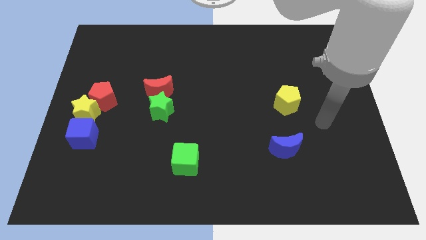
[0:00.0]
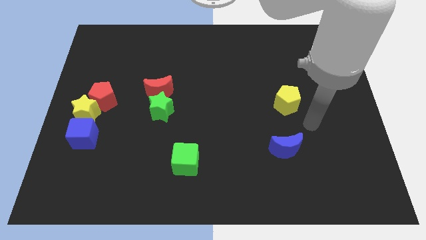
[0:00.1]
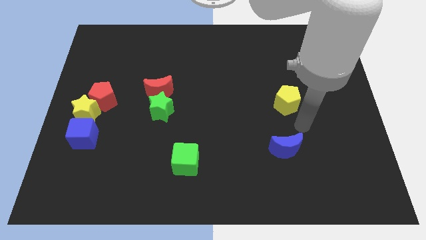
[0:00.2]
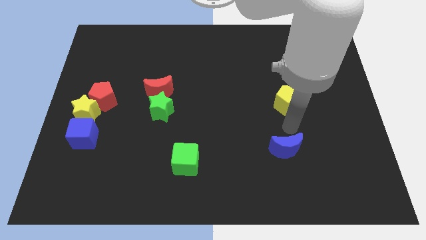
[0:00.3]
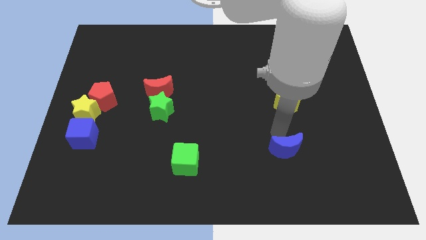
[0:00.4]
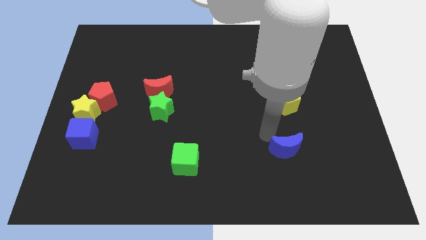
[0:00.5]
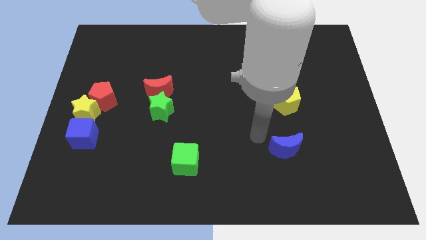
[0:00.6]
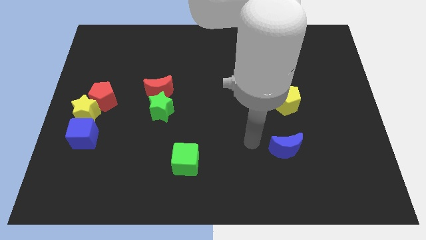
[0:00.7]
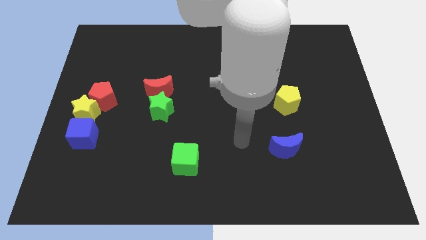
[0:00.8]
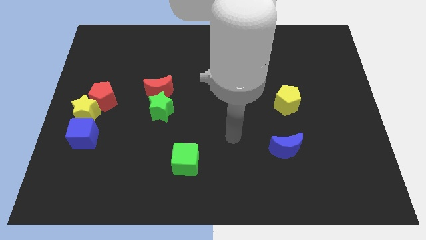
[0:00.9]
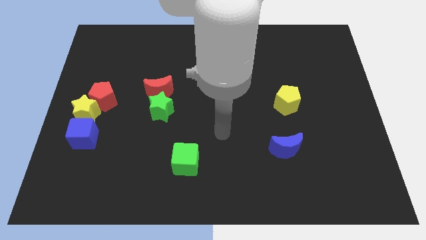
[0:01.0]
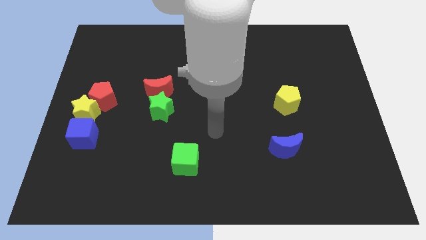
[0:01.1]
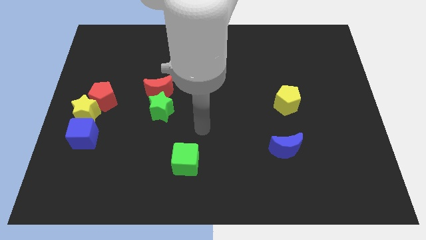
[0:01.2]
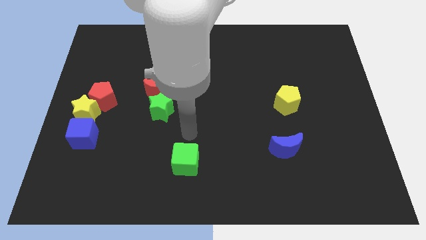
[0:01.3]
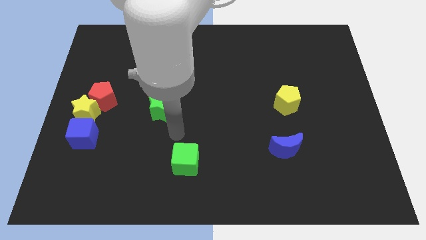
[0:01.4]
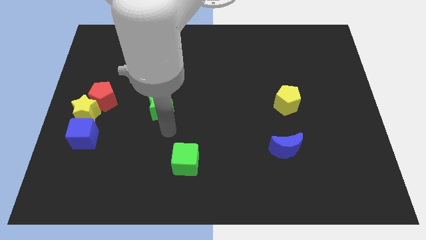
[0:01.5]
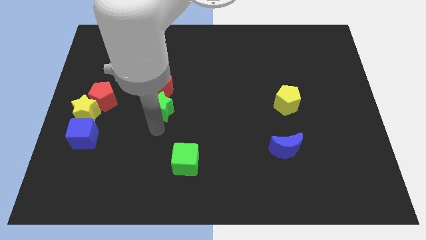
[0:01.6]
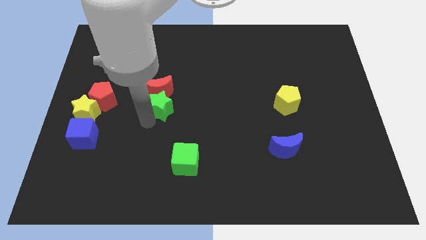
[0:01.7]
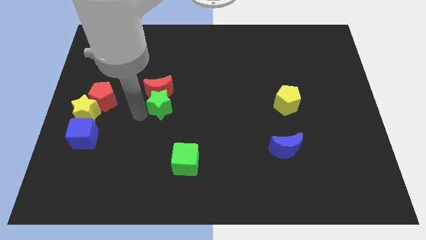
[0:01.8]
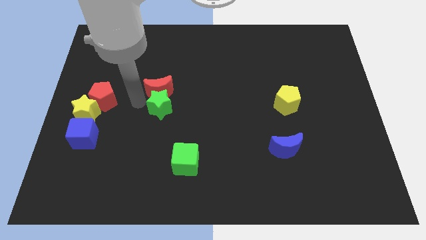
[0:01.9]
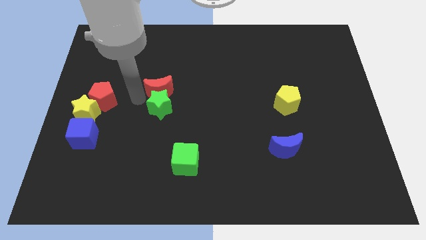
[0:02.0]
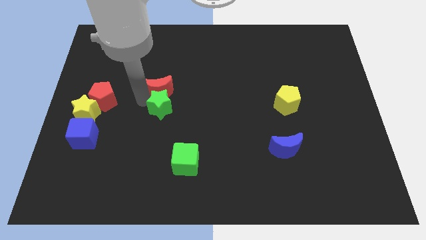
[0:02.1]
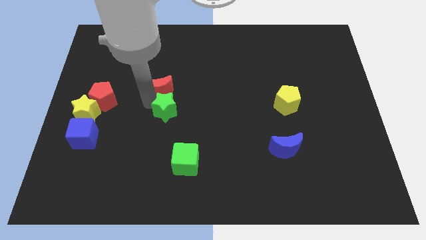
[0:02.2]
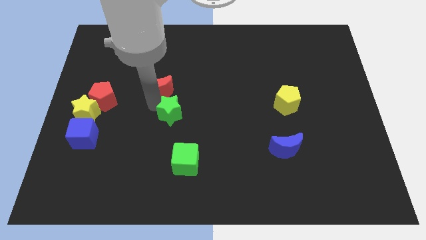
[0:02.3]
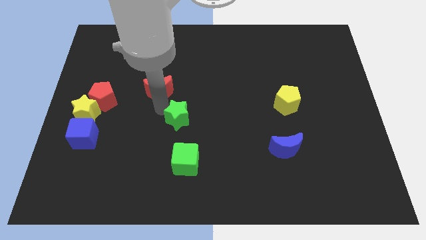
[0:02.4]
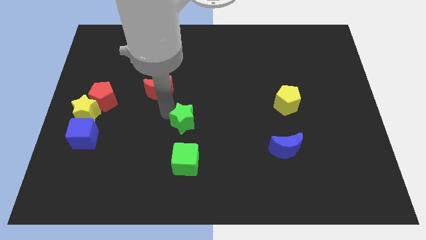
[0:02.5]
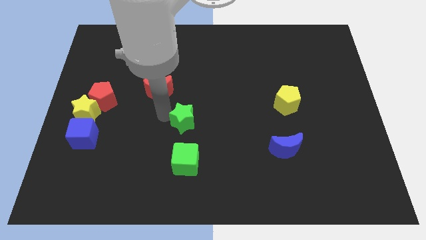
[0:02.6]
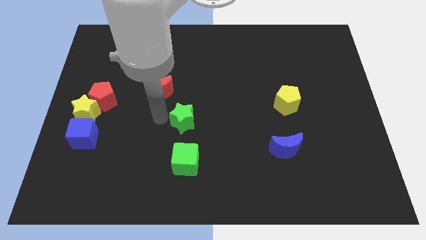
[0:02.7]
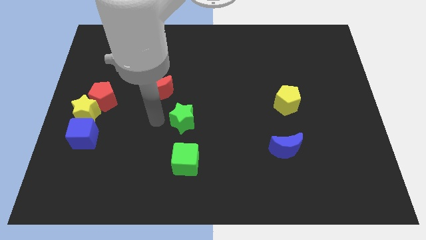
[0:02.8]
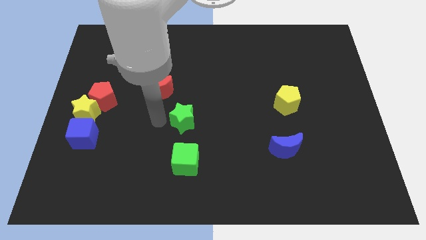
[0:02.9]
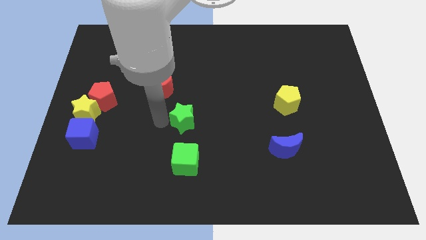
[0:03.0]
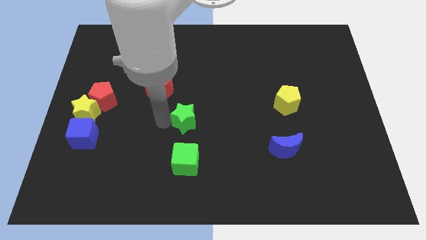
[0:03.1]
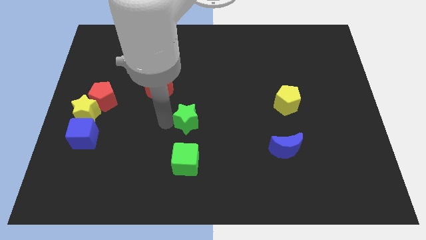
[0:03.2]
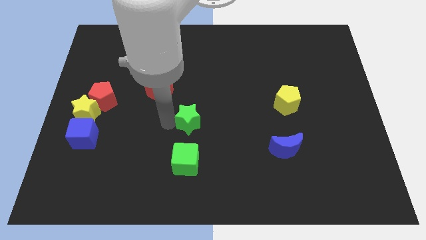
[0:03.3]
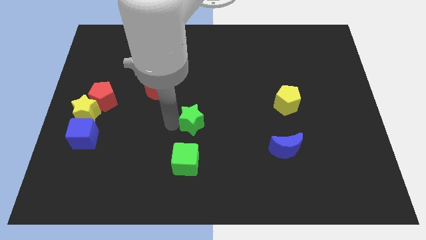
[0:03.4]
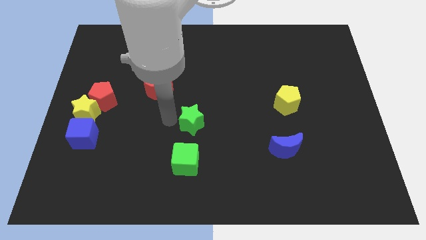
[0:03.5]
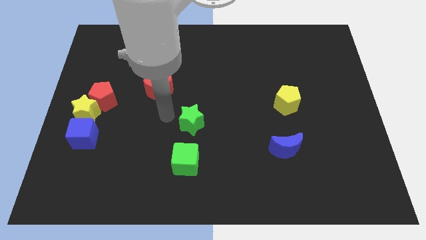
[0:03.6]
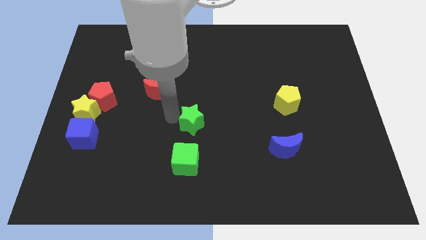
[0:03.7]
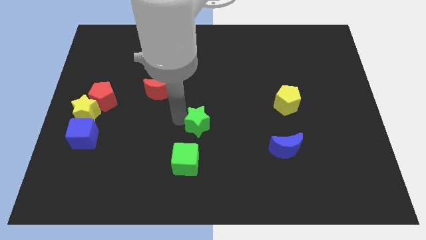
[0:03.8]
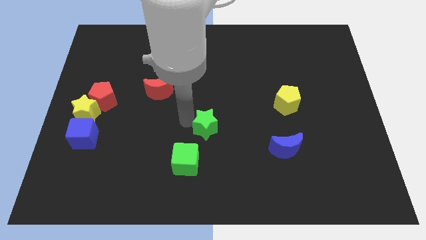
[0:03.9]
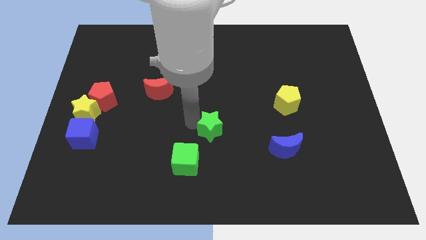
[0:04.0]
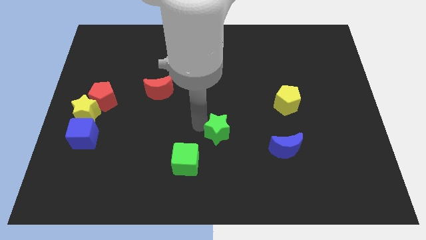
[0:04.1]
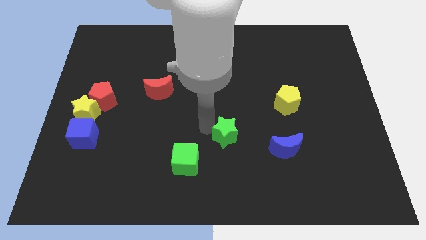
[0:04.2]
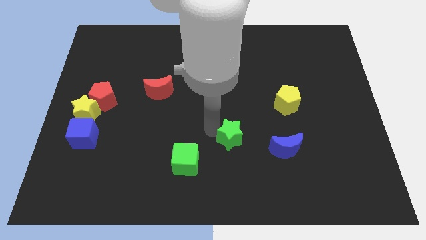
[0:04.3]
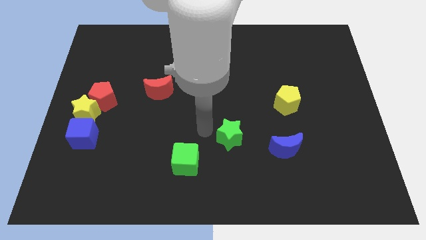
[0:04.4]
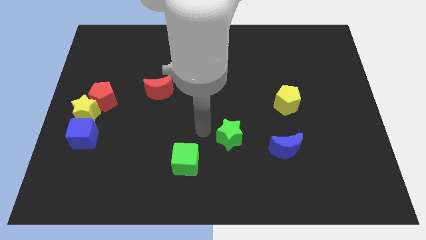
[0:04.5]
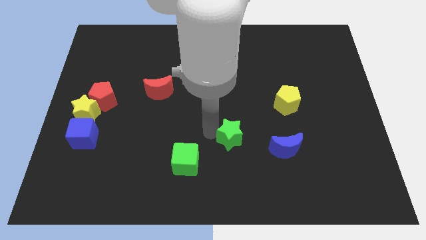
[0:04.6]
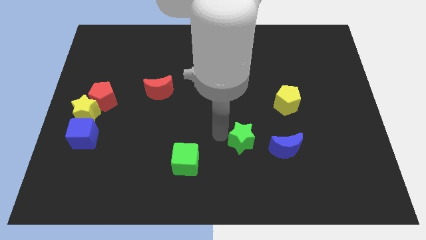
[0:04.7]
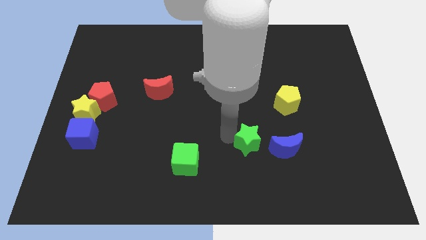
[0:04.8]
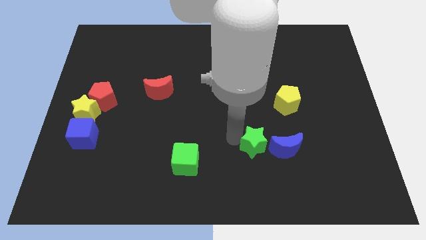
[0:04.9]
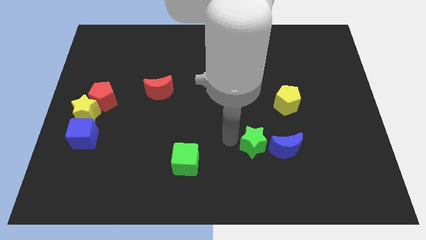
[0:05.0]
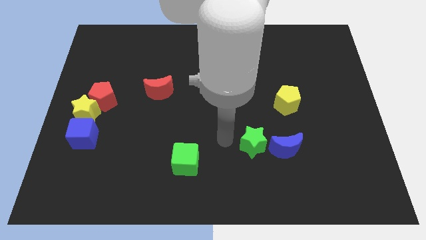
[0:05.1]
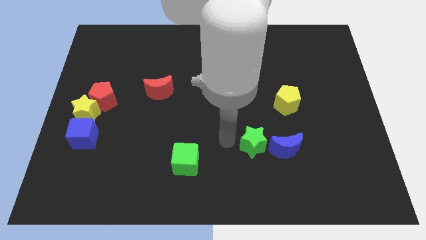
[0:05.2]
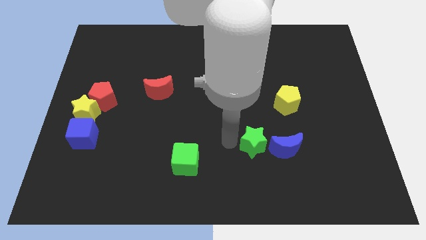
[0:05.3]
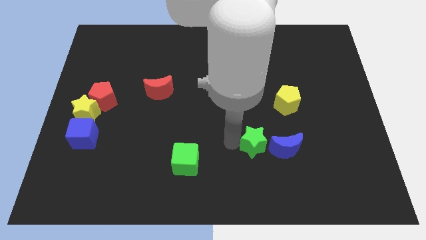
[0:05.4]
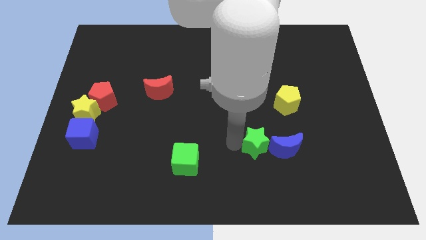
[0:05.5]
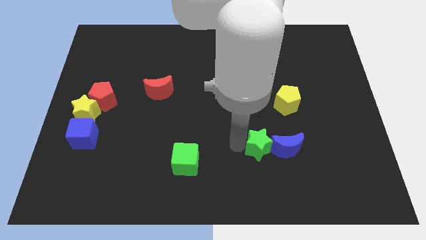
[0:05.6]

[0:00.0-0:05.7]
push the green star next to the blue moon

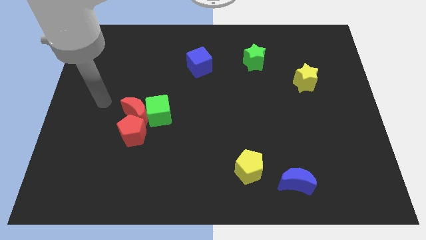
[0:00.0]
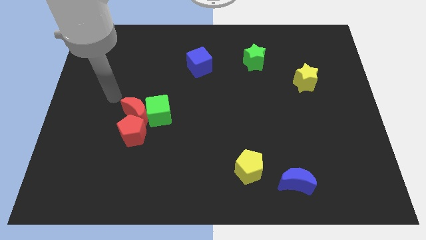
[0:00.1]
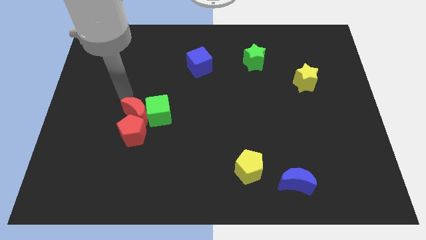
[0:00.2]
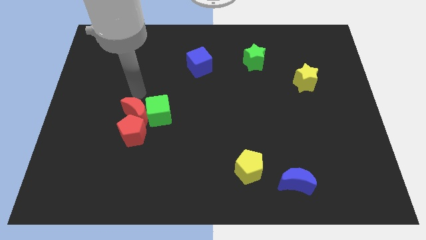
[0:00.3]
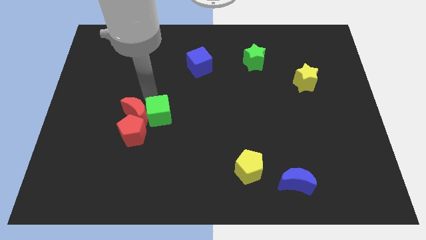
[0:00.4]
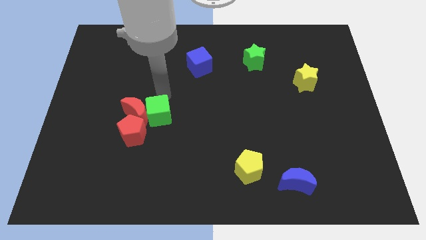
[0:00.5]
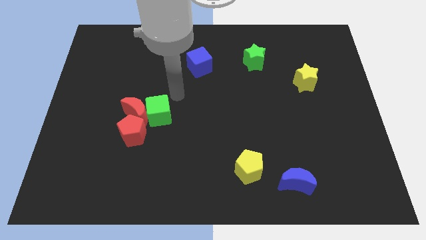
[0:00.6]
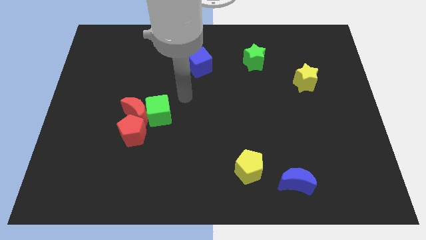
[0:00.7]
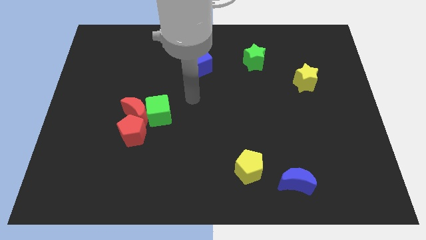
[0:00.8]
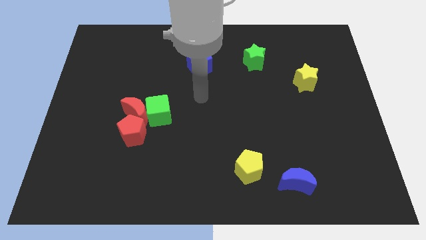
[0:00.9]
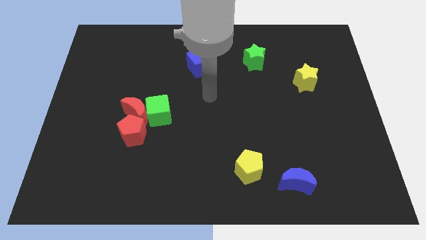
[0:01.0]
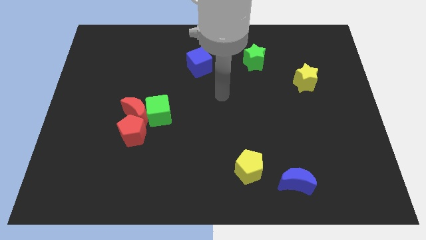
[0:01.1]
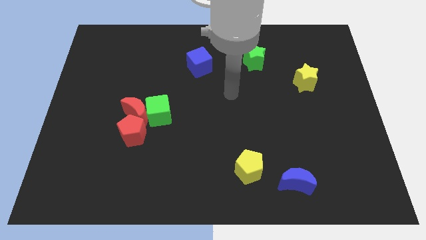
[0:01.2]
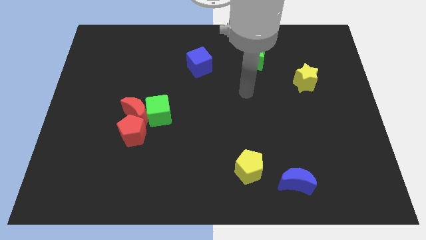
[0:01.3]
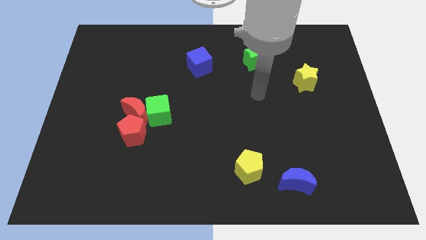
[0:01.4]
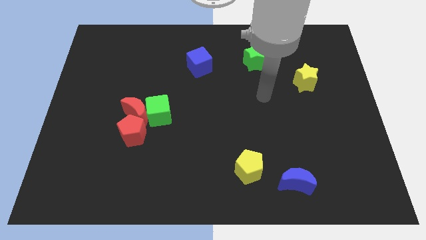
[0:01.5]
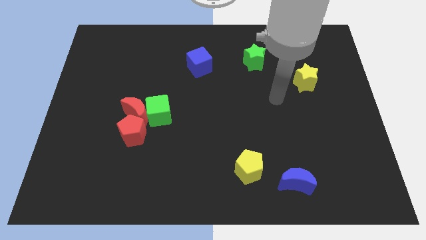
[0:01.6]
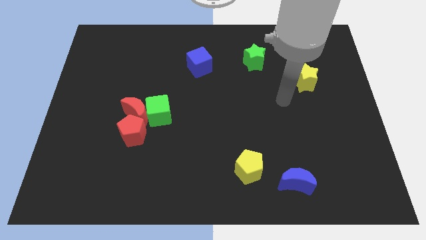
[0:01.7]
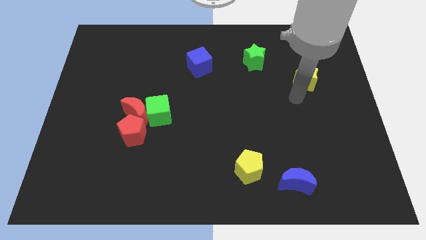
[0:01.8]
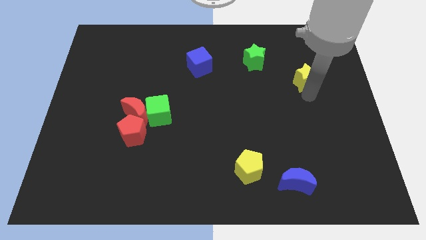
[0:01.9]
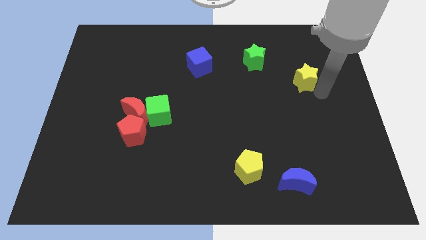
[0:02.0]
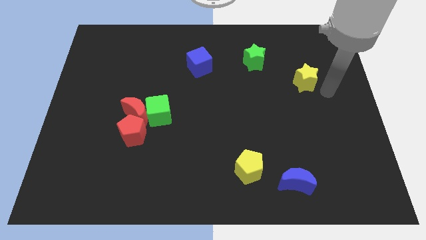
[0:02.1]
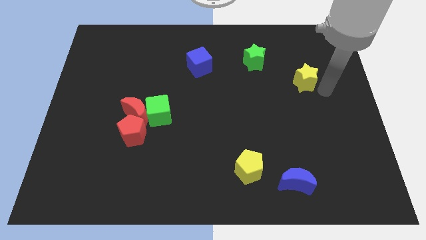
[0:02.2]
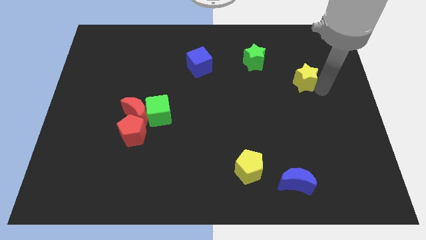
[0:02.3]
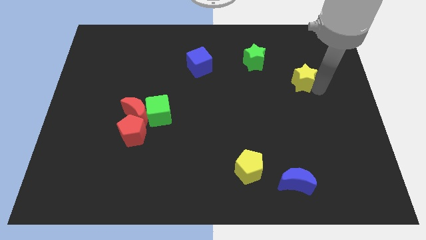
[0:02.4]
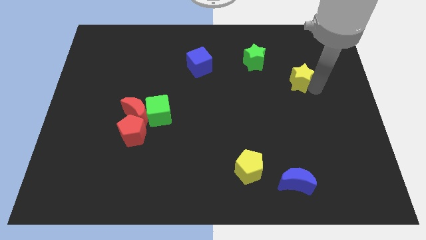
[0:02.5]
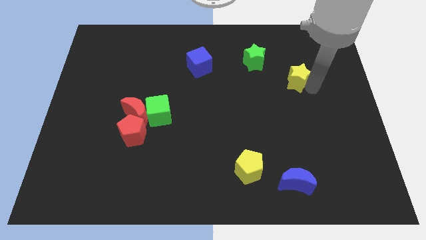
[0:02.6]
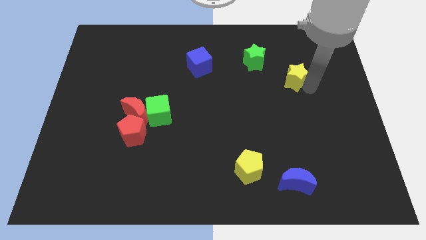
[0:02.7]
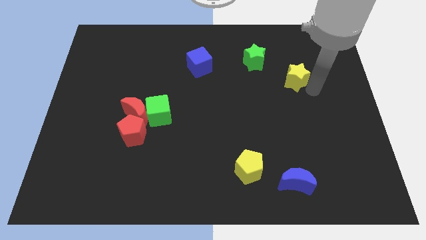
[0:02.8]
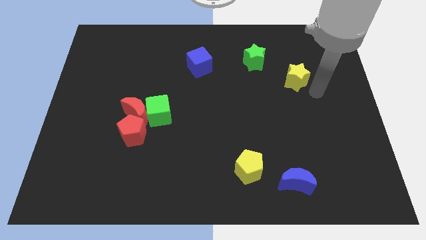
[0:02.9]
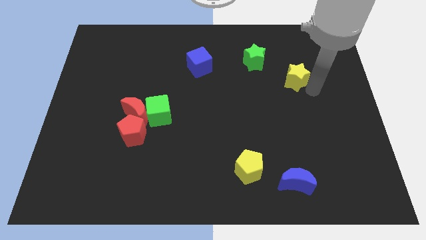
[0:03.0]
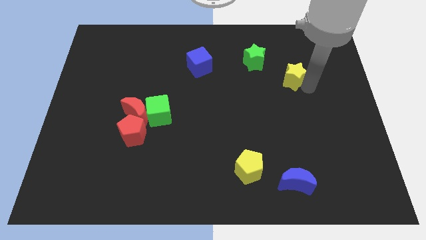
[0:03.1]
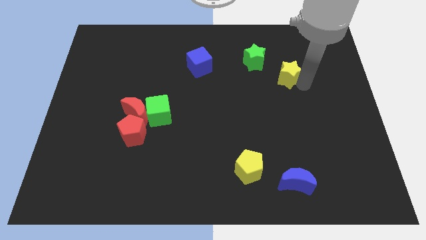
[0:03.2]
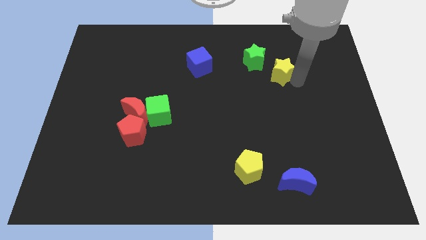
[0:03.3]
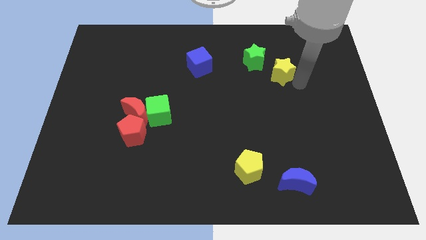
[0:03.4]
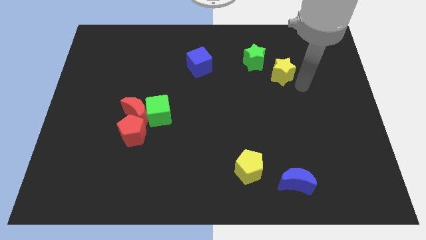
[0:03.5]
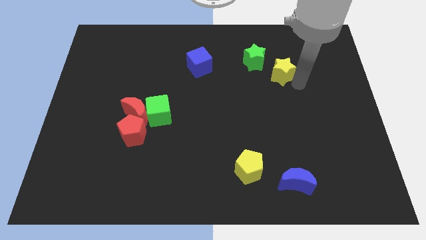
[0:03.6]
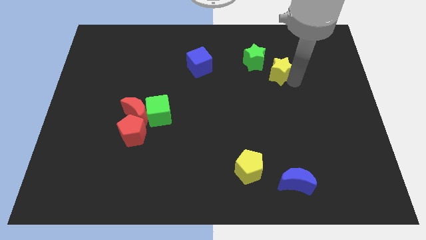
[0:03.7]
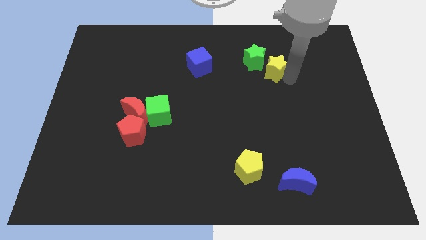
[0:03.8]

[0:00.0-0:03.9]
move the yellow star to the green star
